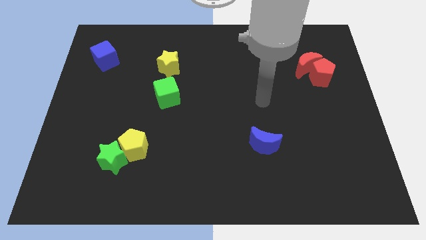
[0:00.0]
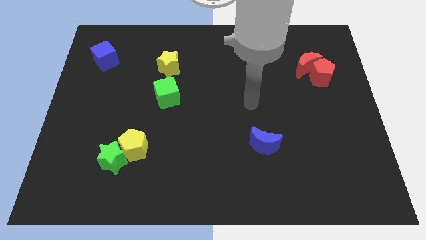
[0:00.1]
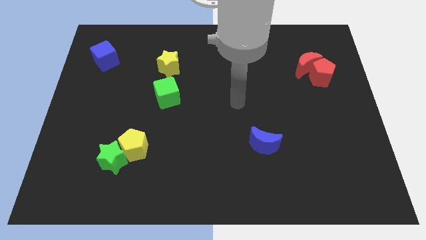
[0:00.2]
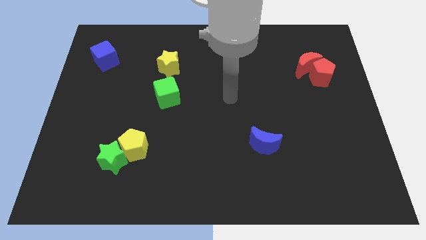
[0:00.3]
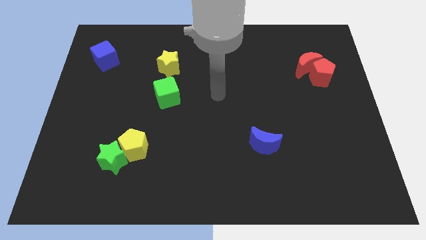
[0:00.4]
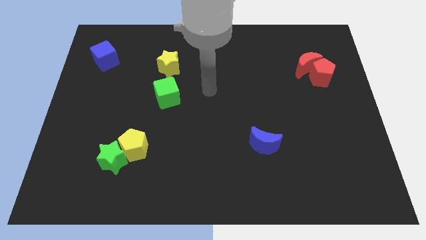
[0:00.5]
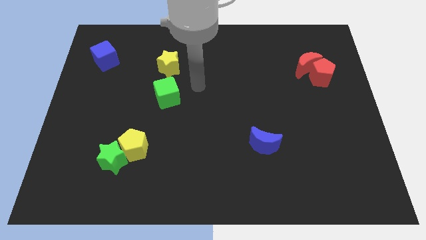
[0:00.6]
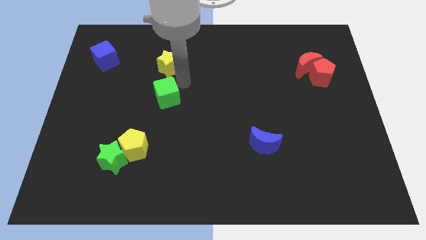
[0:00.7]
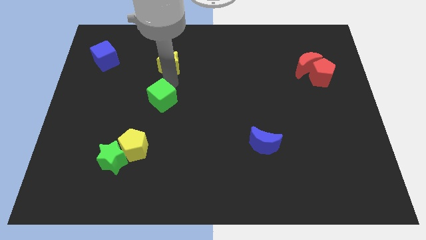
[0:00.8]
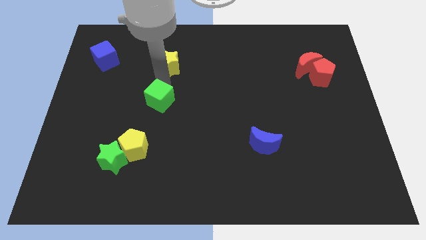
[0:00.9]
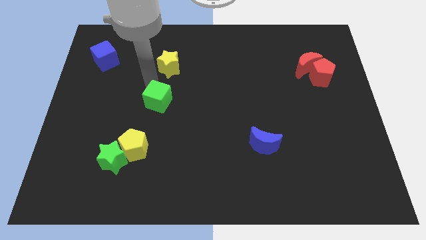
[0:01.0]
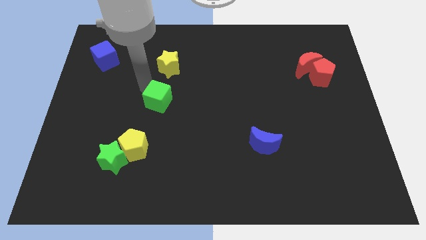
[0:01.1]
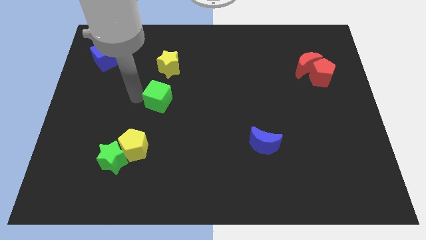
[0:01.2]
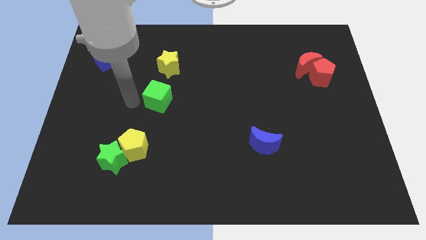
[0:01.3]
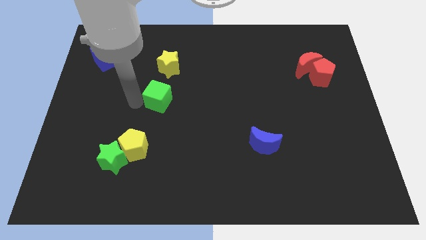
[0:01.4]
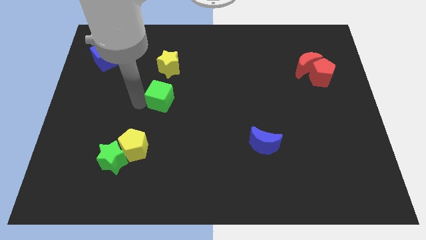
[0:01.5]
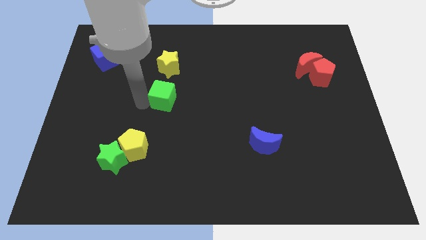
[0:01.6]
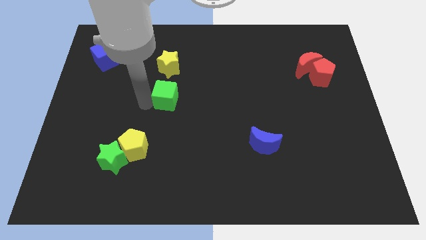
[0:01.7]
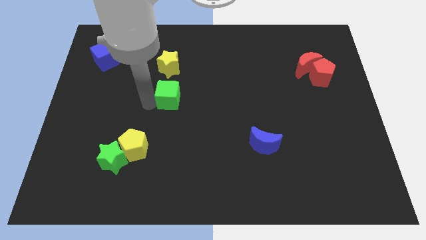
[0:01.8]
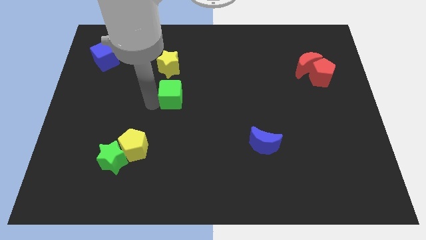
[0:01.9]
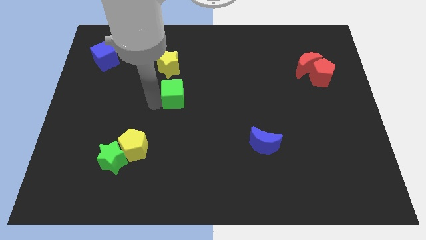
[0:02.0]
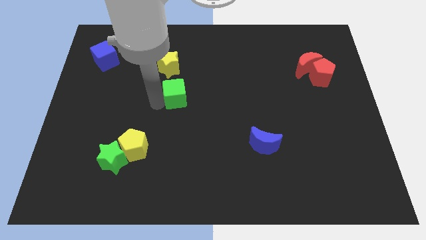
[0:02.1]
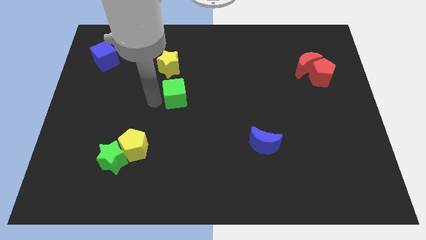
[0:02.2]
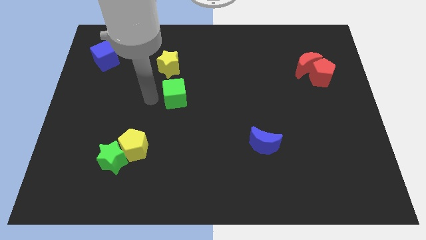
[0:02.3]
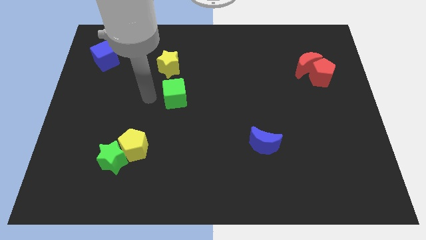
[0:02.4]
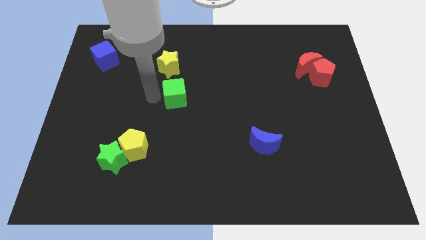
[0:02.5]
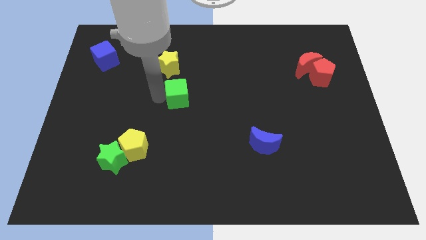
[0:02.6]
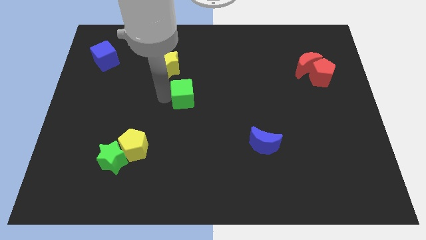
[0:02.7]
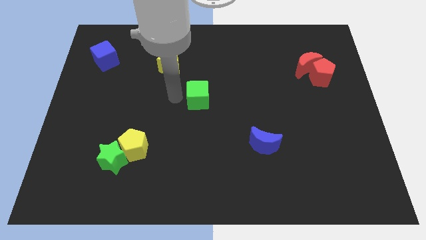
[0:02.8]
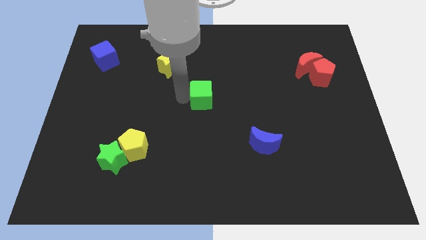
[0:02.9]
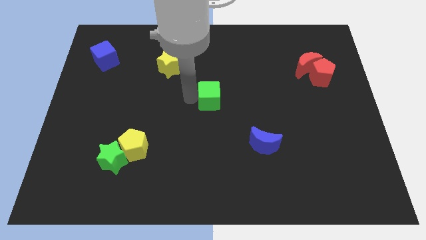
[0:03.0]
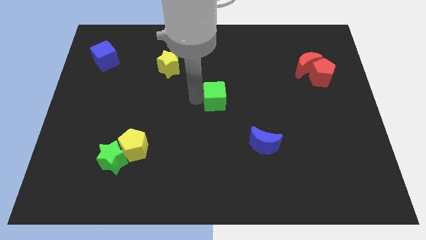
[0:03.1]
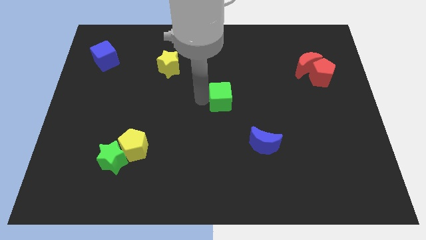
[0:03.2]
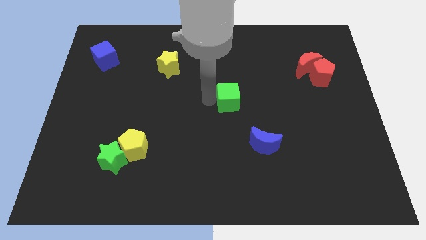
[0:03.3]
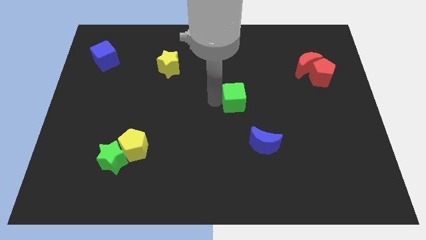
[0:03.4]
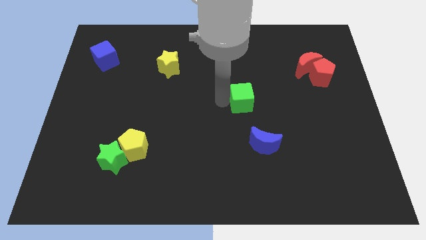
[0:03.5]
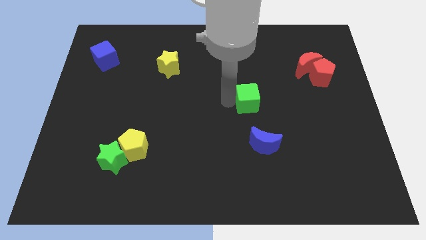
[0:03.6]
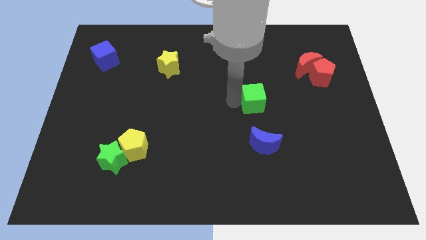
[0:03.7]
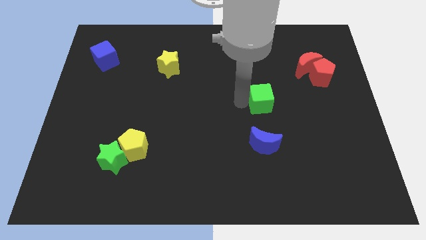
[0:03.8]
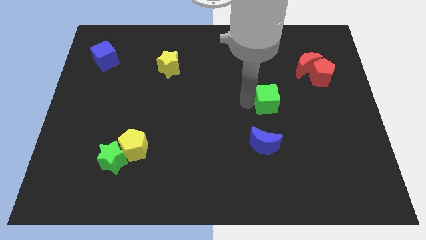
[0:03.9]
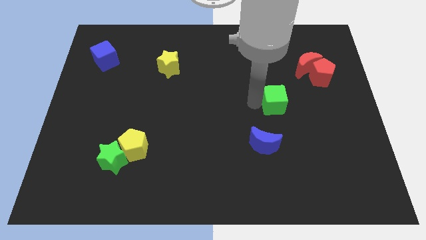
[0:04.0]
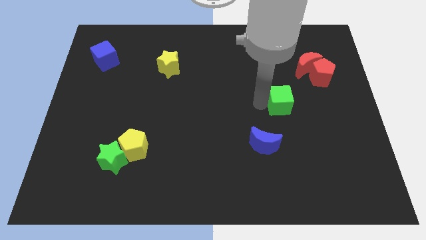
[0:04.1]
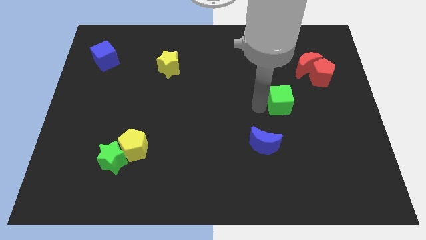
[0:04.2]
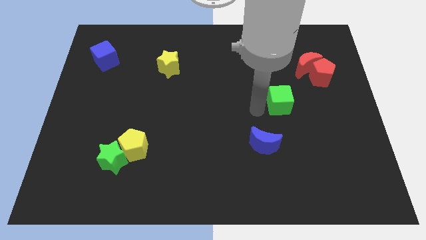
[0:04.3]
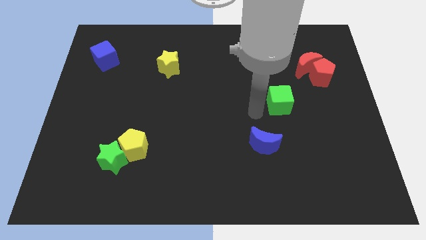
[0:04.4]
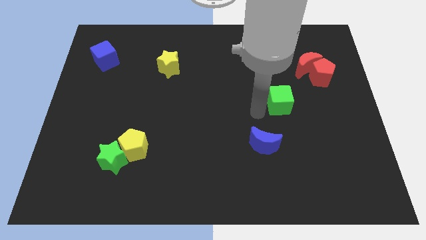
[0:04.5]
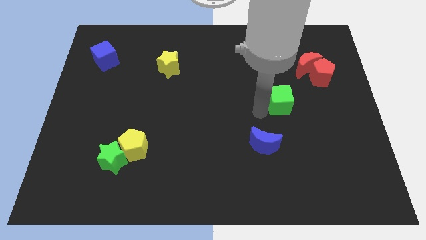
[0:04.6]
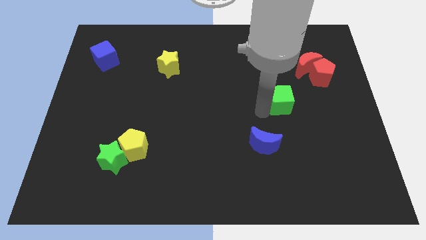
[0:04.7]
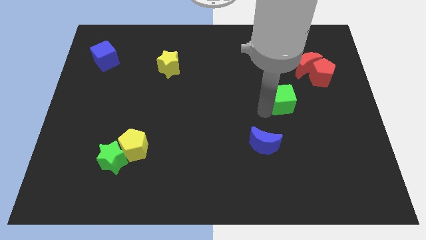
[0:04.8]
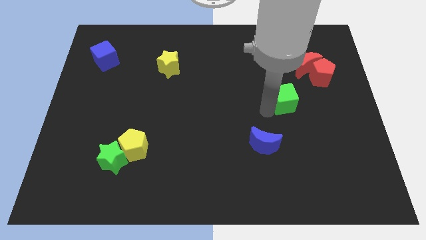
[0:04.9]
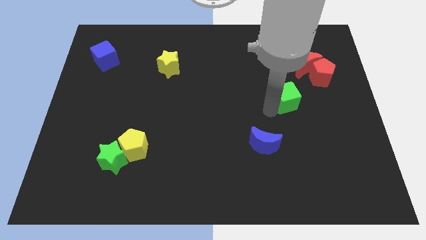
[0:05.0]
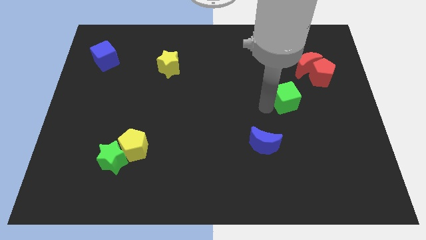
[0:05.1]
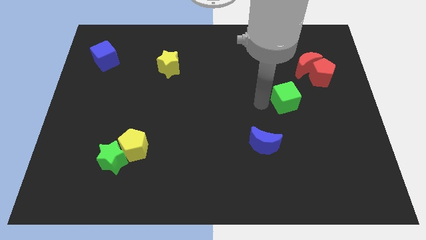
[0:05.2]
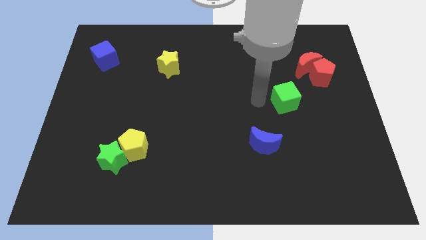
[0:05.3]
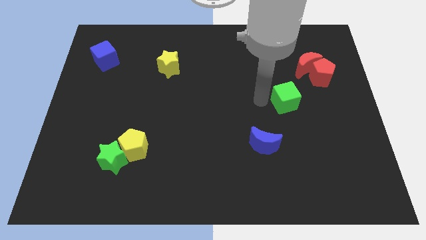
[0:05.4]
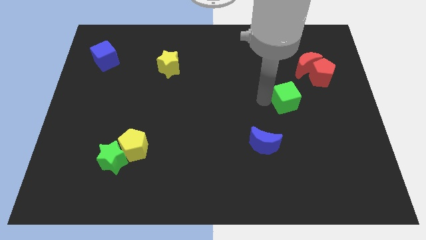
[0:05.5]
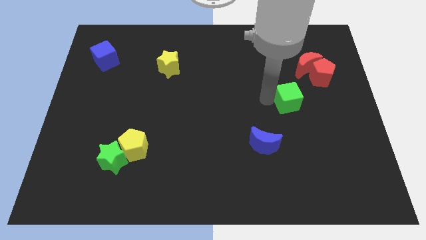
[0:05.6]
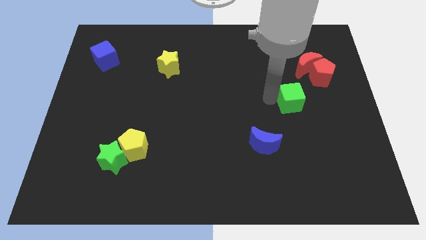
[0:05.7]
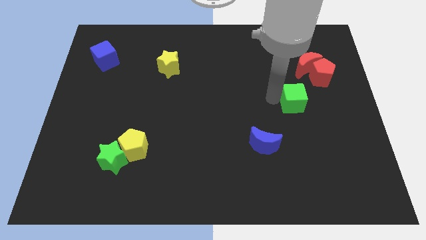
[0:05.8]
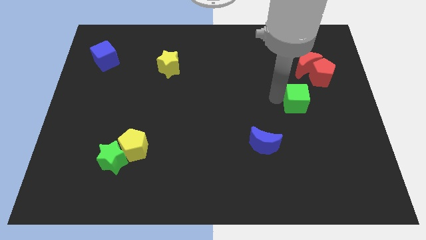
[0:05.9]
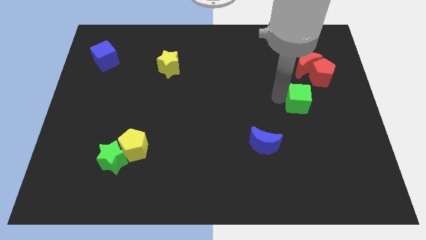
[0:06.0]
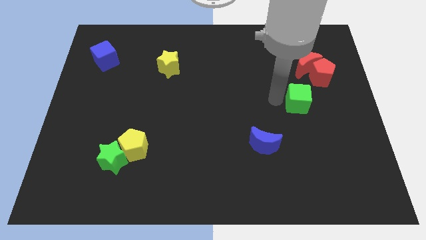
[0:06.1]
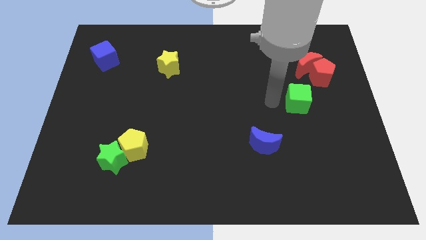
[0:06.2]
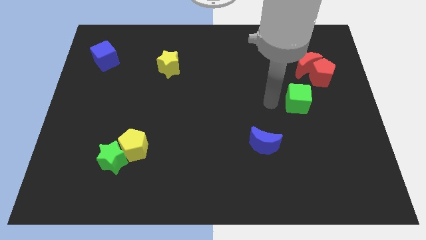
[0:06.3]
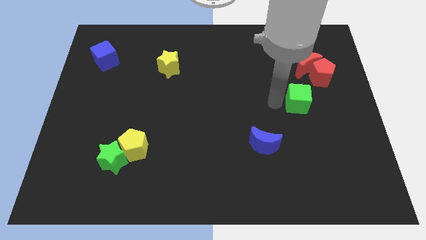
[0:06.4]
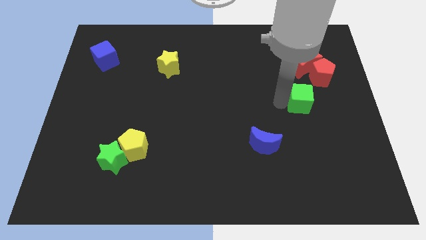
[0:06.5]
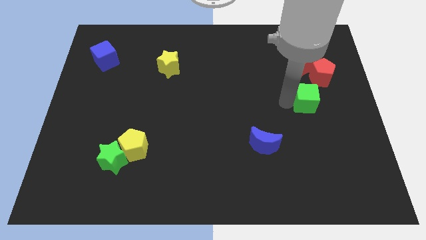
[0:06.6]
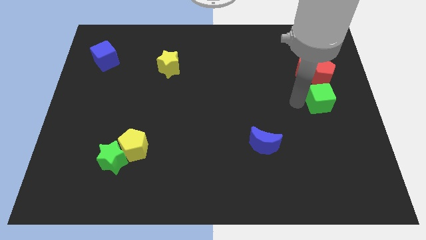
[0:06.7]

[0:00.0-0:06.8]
move the green cube to the center right
